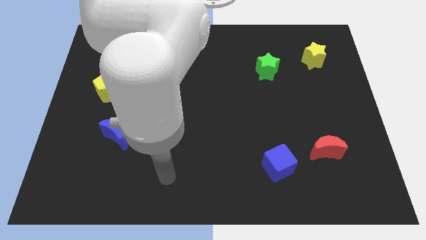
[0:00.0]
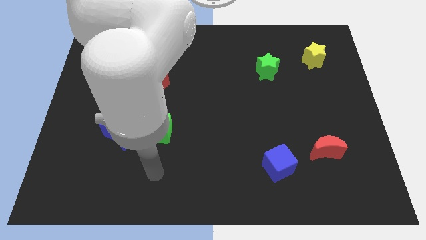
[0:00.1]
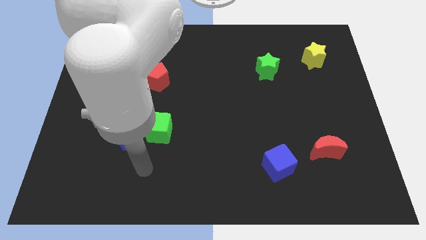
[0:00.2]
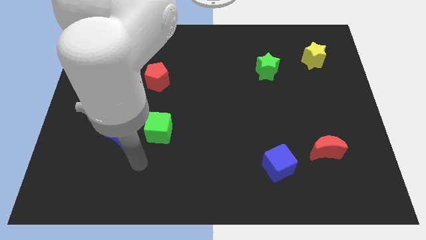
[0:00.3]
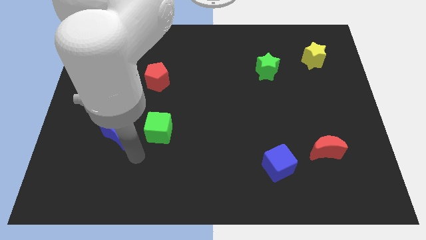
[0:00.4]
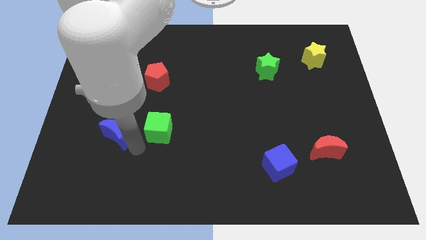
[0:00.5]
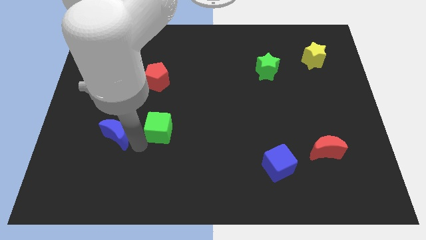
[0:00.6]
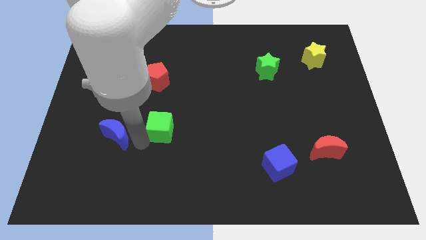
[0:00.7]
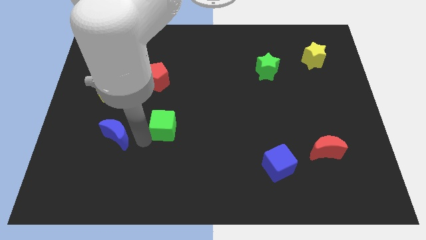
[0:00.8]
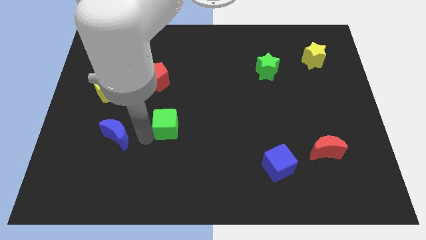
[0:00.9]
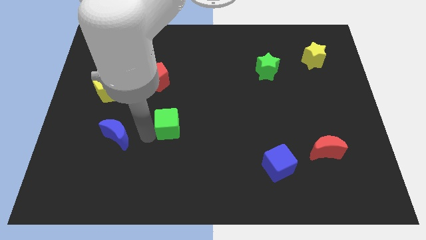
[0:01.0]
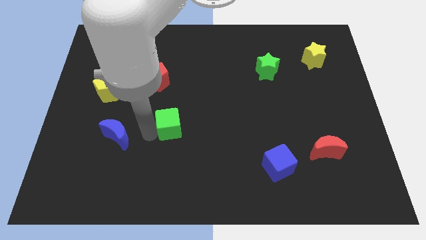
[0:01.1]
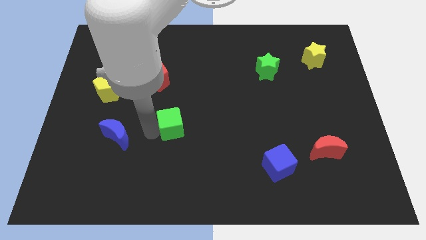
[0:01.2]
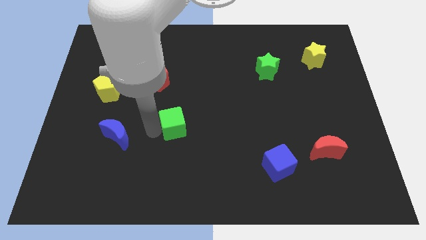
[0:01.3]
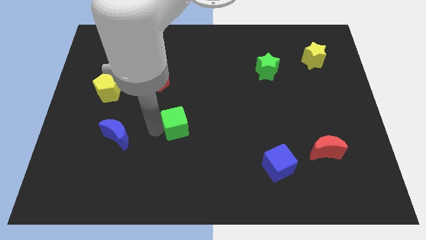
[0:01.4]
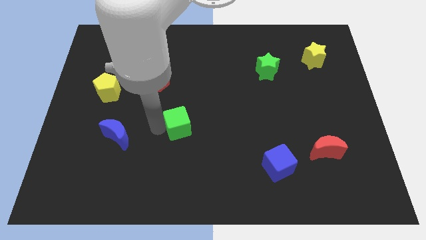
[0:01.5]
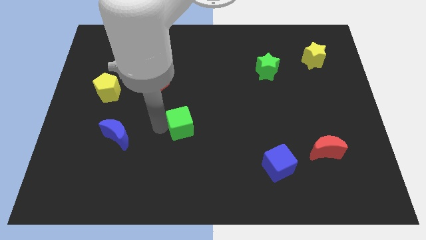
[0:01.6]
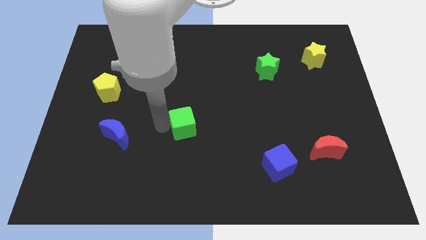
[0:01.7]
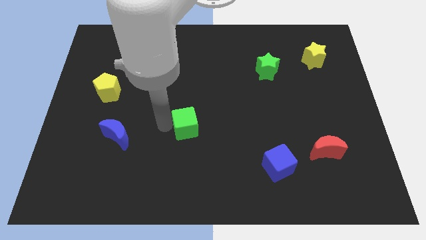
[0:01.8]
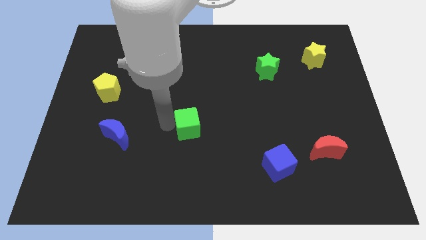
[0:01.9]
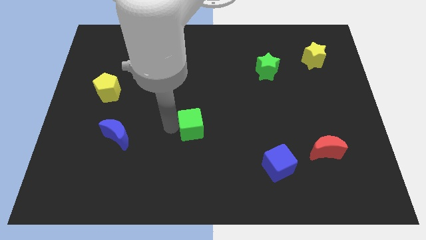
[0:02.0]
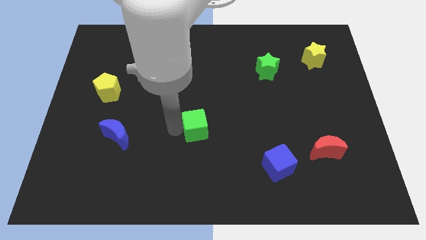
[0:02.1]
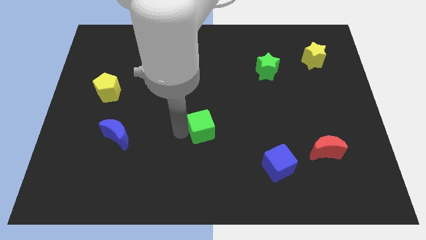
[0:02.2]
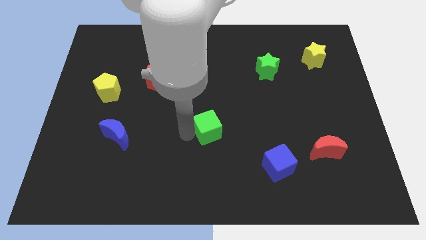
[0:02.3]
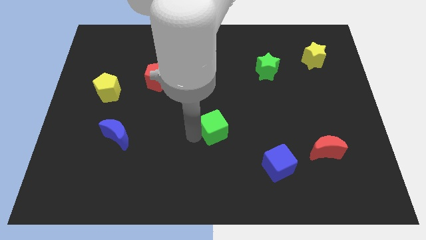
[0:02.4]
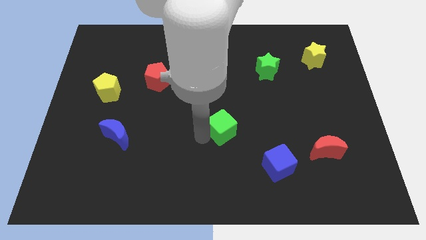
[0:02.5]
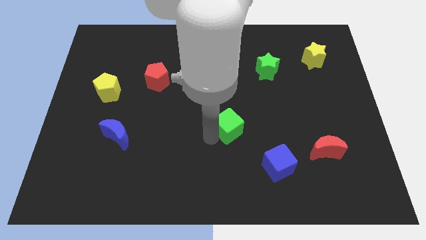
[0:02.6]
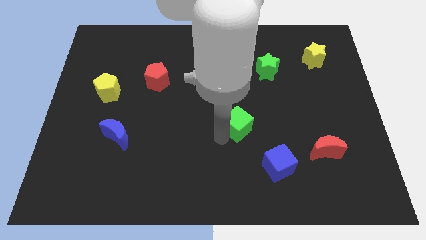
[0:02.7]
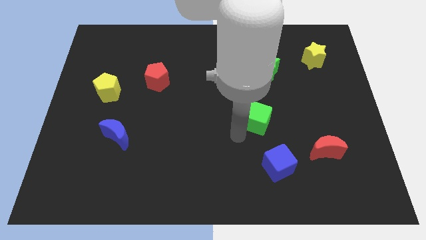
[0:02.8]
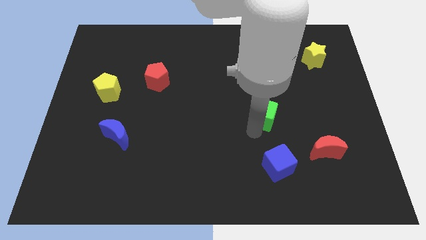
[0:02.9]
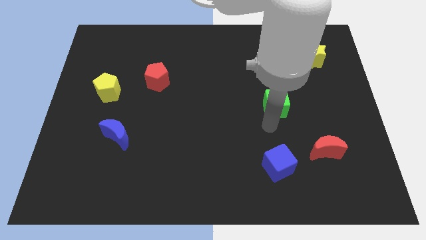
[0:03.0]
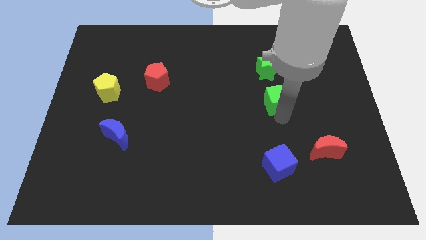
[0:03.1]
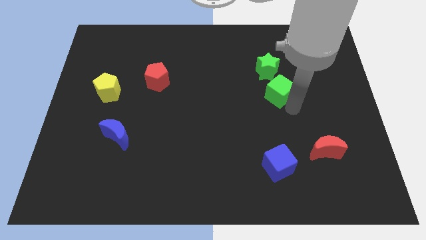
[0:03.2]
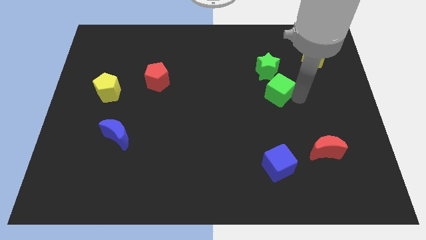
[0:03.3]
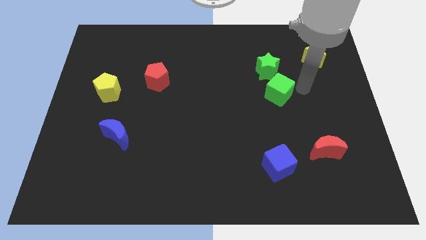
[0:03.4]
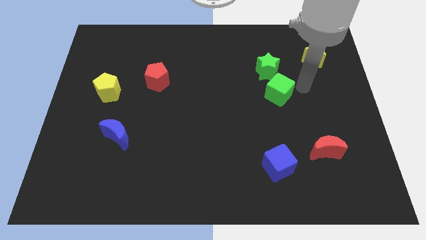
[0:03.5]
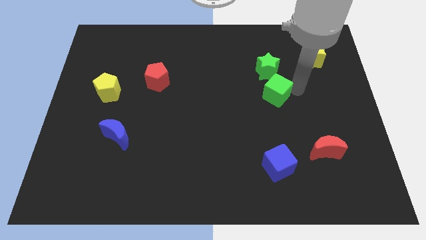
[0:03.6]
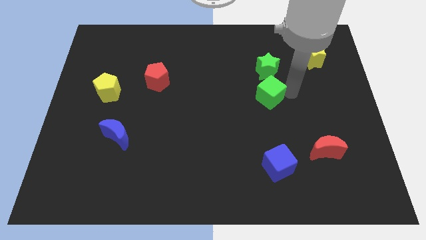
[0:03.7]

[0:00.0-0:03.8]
move the green cube diagonally upwards and to the right a little

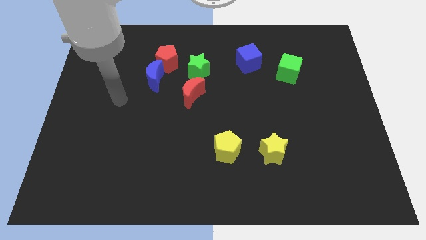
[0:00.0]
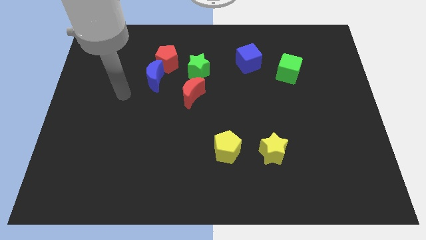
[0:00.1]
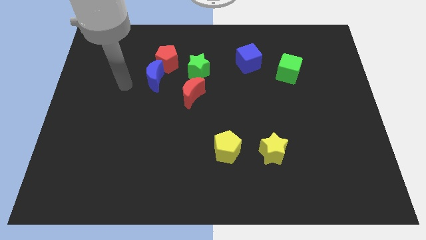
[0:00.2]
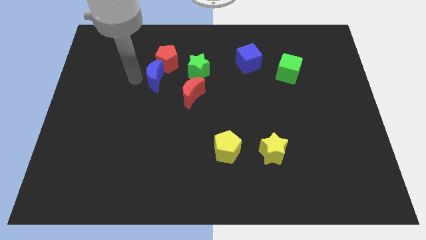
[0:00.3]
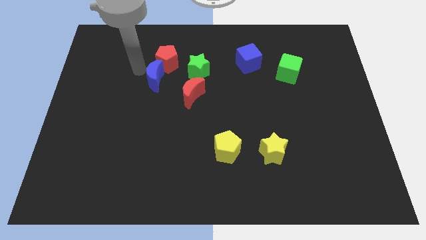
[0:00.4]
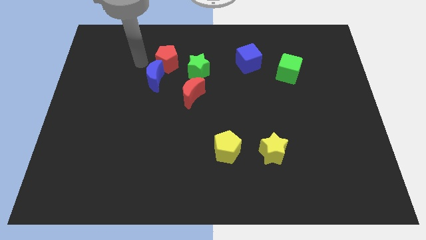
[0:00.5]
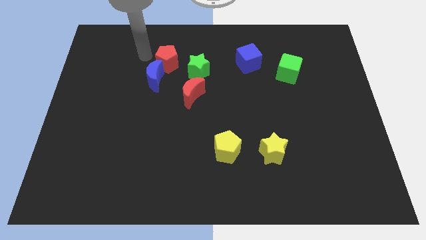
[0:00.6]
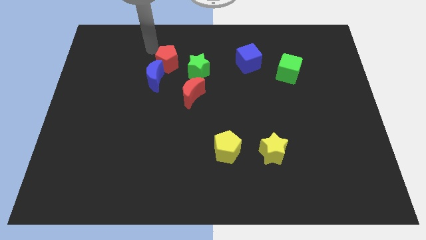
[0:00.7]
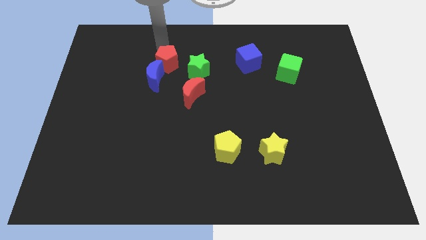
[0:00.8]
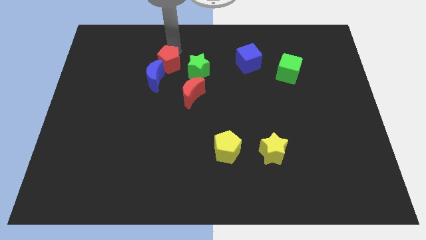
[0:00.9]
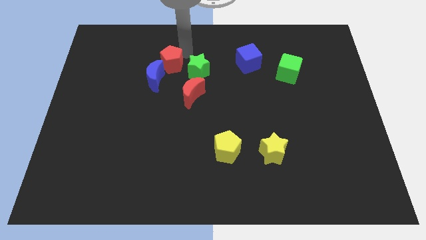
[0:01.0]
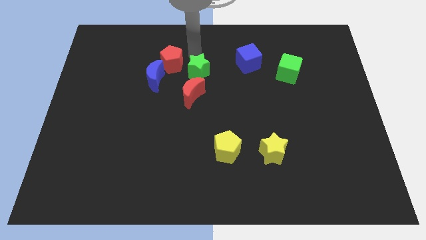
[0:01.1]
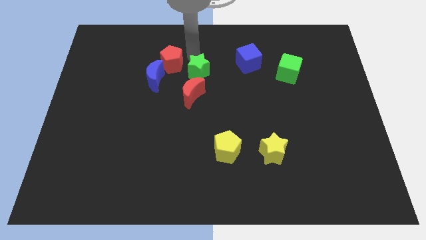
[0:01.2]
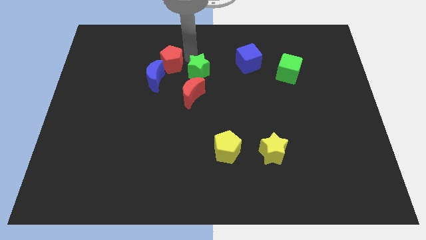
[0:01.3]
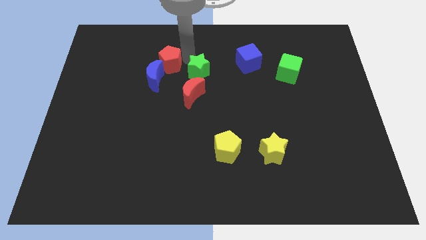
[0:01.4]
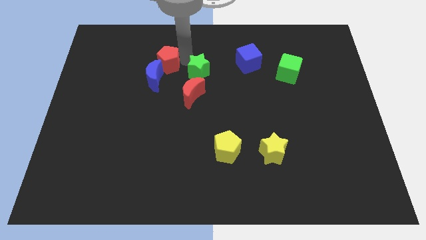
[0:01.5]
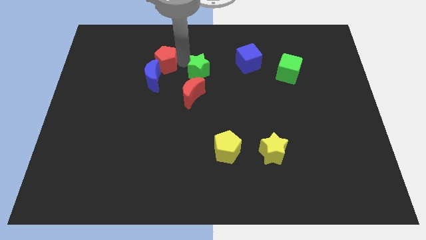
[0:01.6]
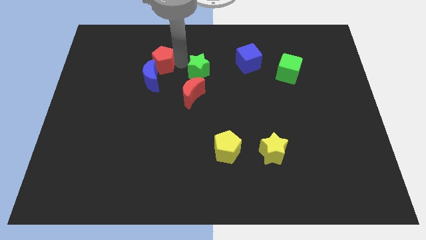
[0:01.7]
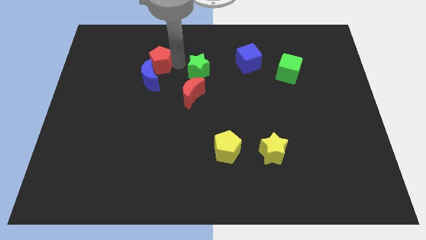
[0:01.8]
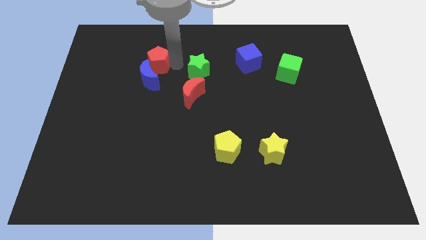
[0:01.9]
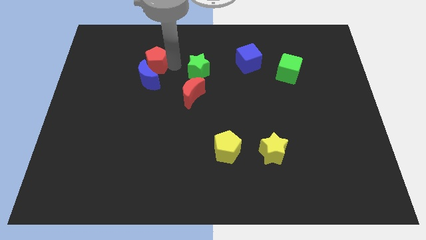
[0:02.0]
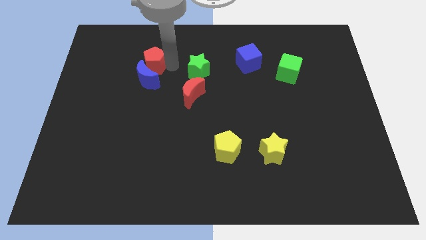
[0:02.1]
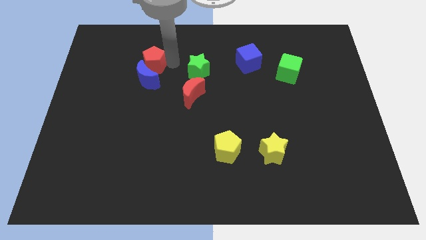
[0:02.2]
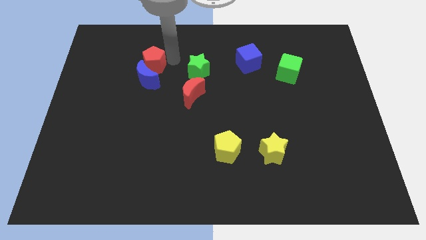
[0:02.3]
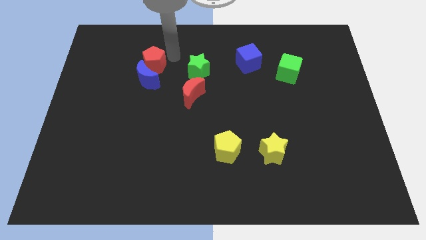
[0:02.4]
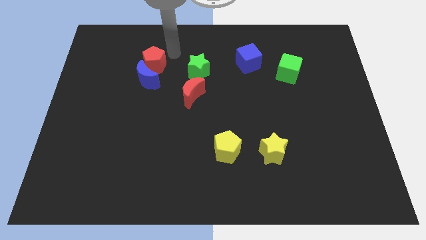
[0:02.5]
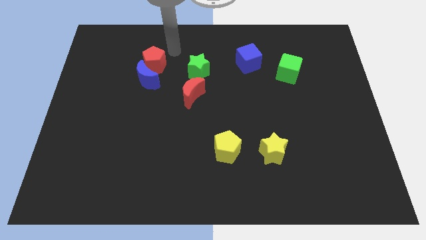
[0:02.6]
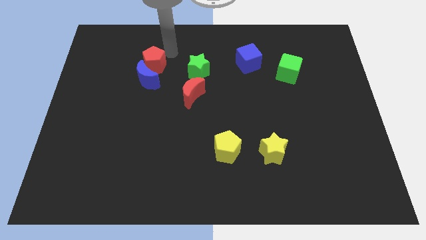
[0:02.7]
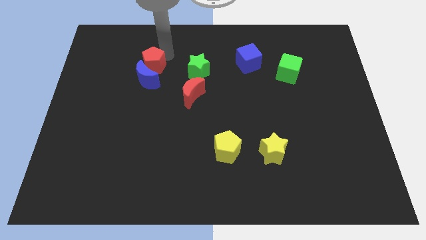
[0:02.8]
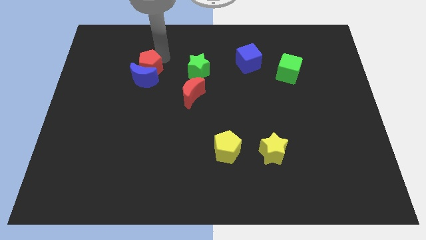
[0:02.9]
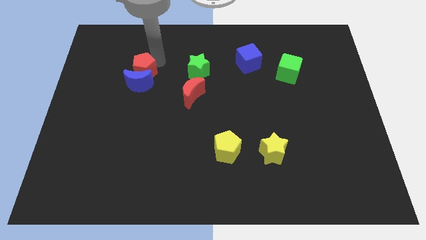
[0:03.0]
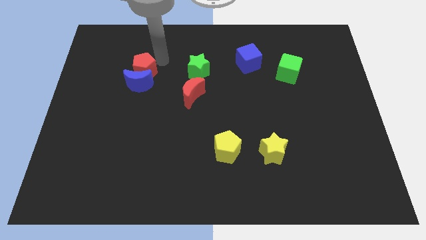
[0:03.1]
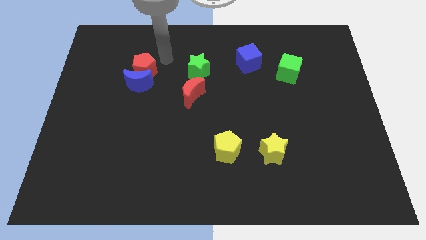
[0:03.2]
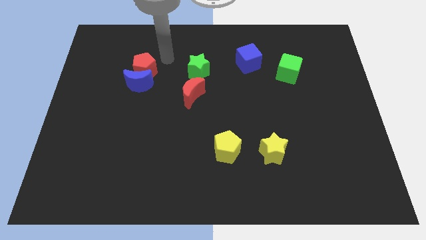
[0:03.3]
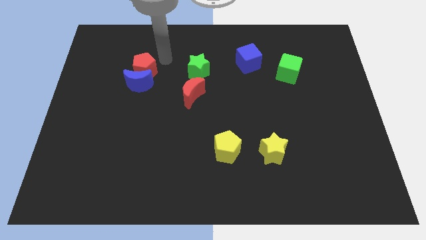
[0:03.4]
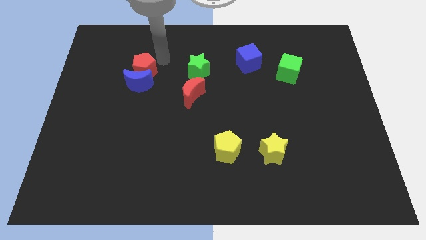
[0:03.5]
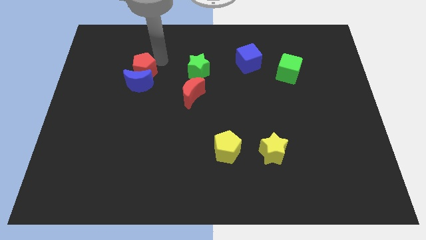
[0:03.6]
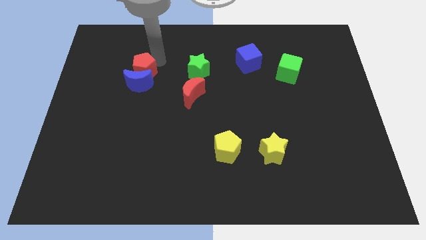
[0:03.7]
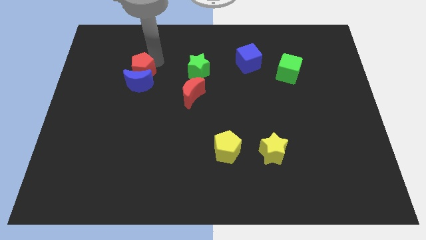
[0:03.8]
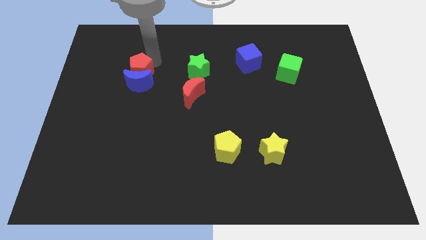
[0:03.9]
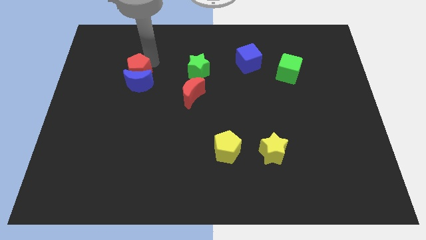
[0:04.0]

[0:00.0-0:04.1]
move the red pentagon a little diagonally downwards and left

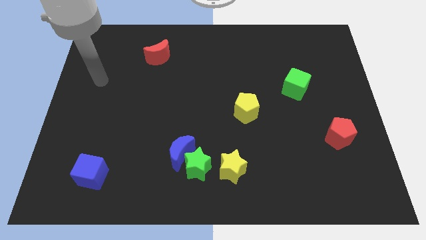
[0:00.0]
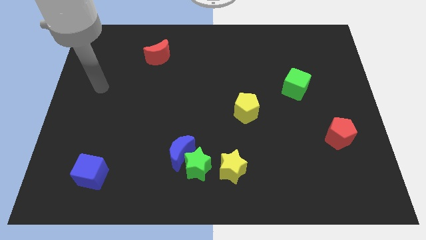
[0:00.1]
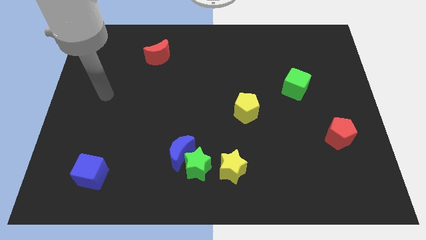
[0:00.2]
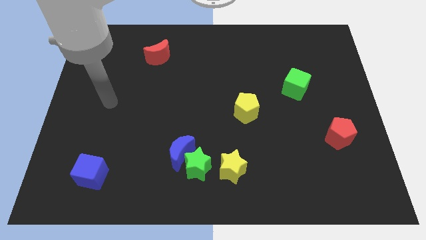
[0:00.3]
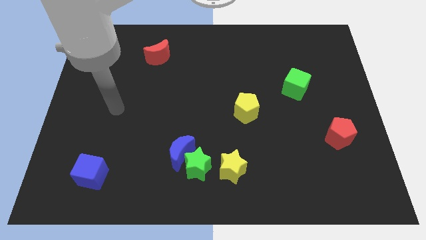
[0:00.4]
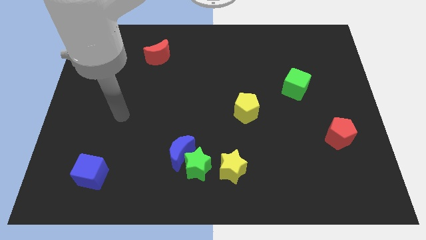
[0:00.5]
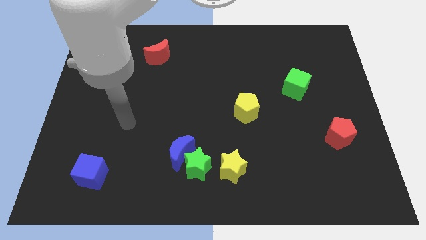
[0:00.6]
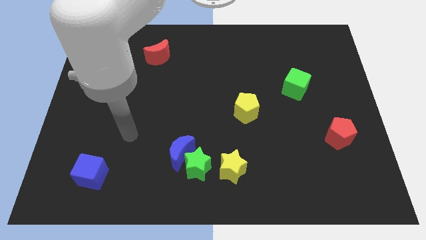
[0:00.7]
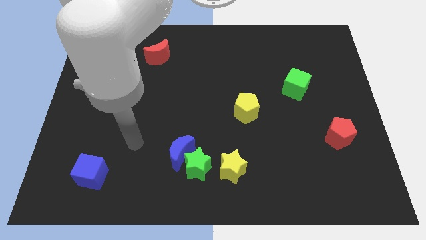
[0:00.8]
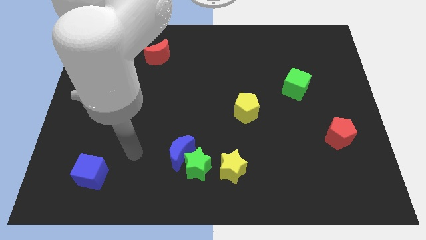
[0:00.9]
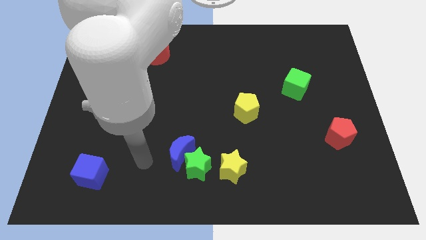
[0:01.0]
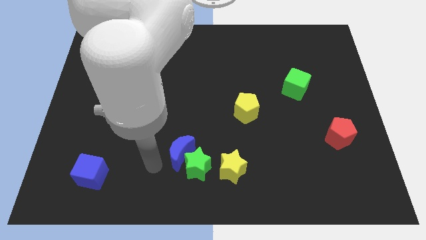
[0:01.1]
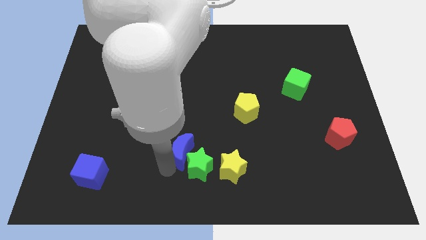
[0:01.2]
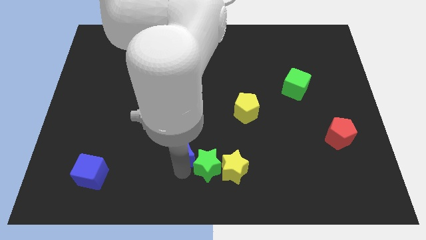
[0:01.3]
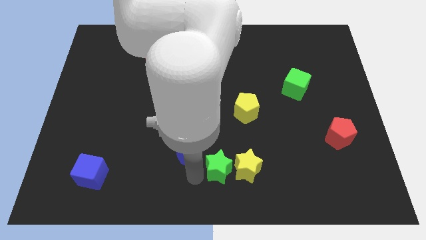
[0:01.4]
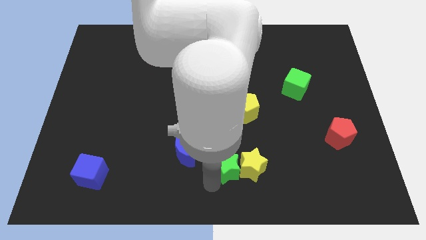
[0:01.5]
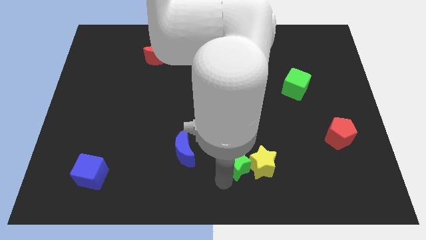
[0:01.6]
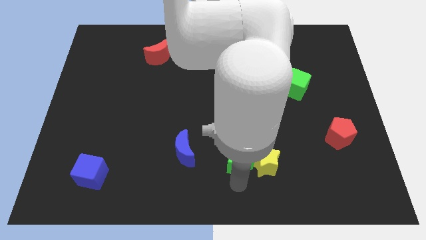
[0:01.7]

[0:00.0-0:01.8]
slide the yellow star to the right somewhat
